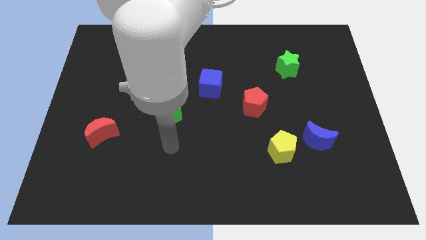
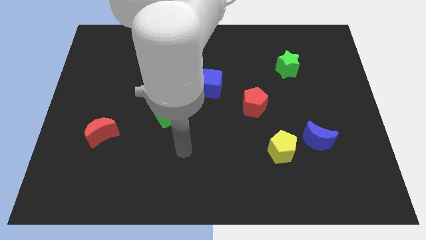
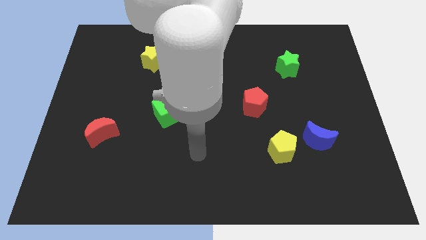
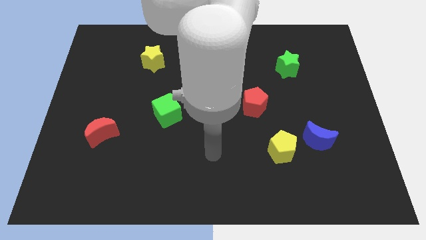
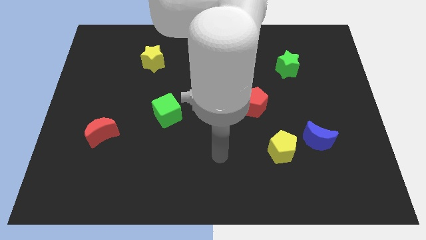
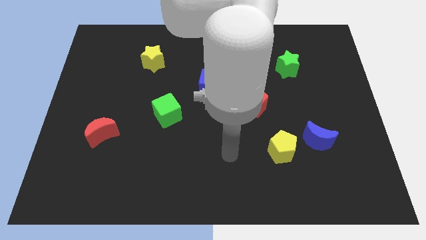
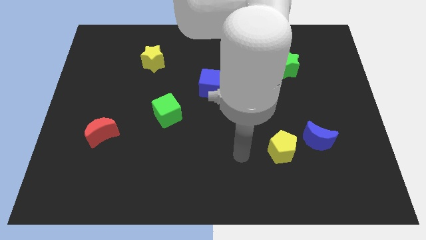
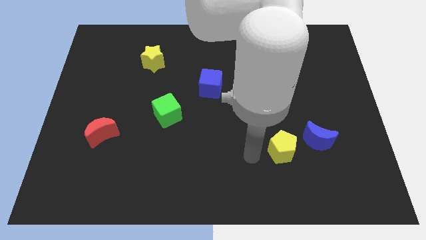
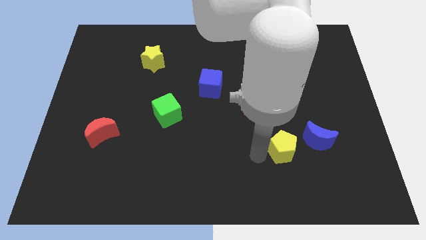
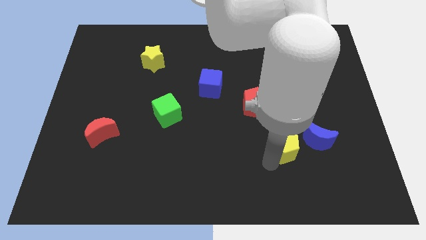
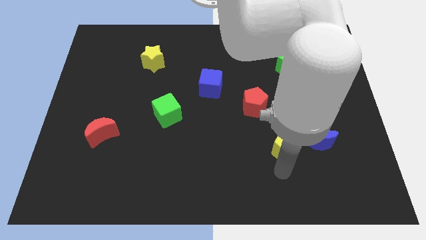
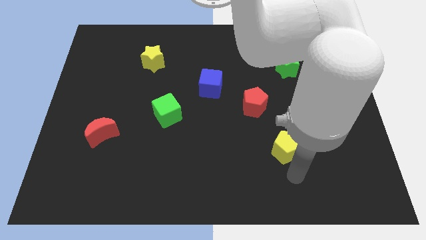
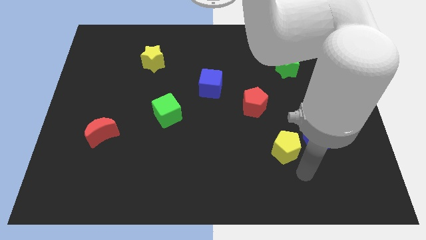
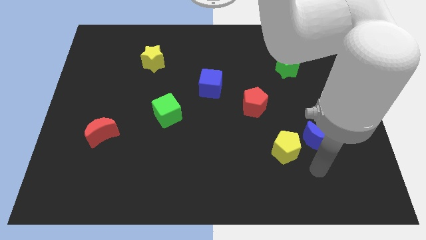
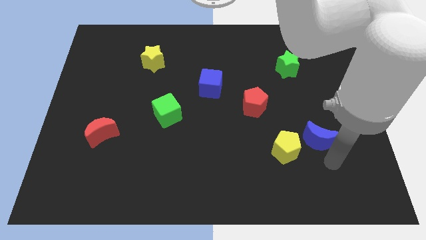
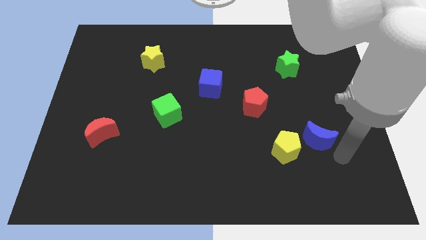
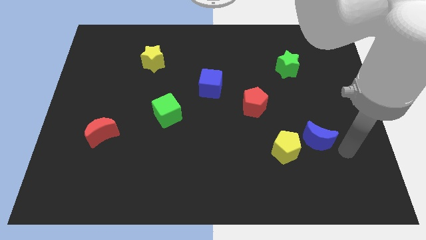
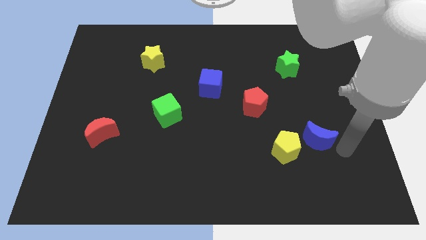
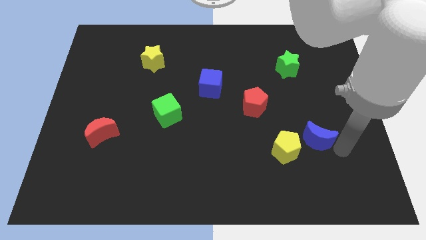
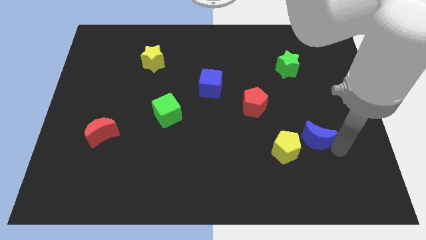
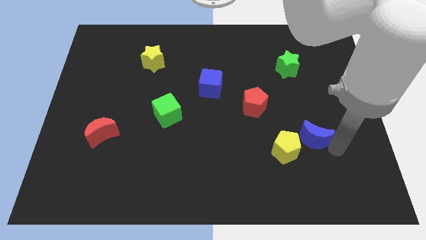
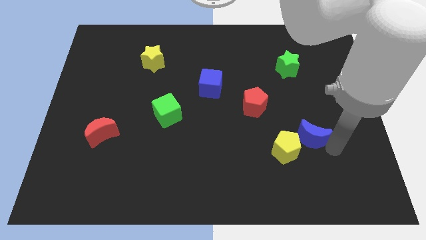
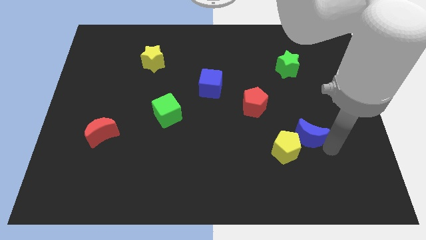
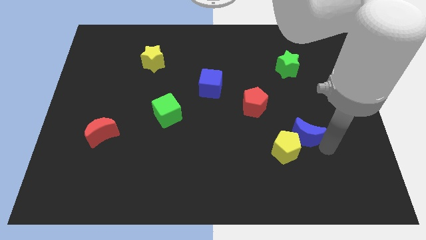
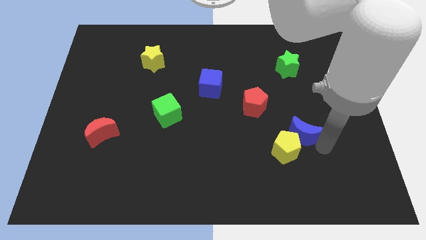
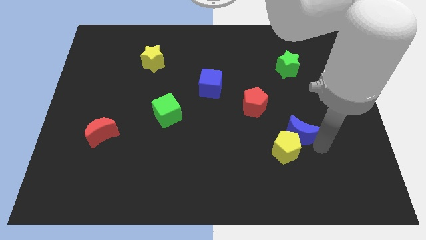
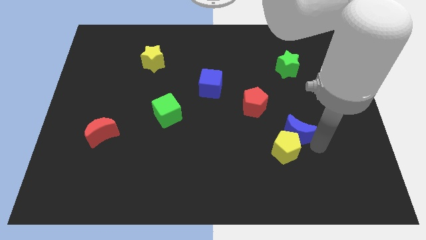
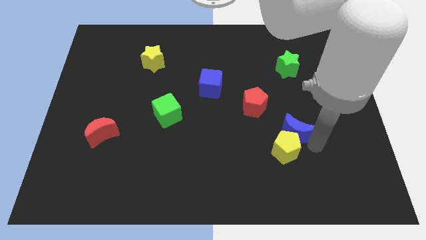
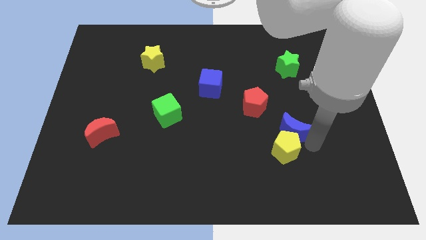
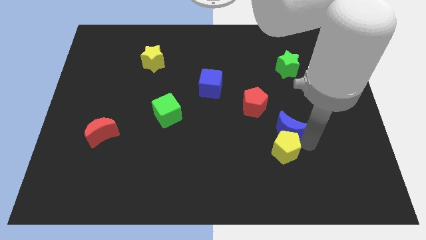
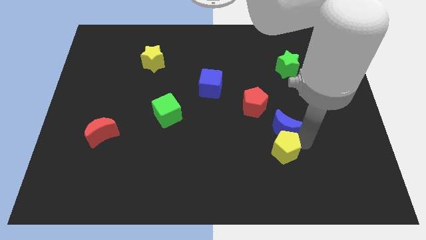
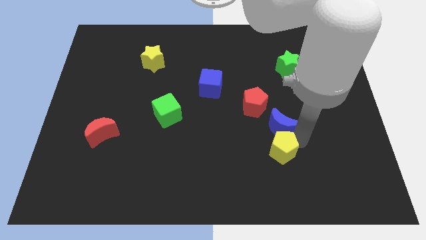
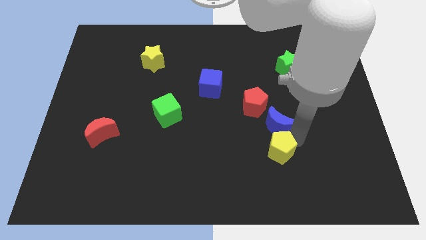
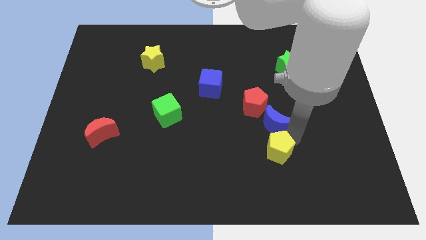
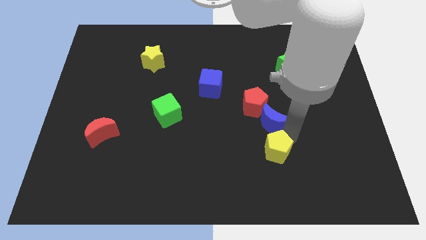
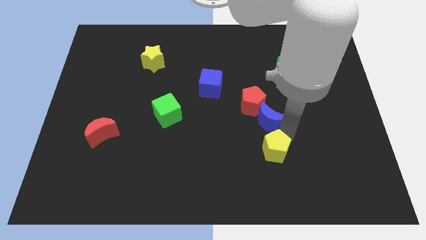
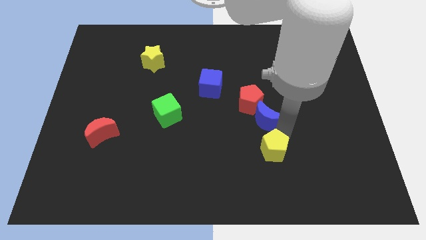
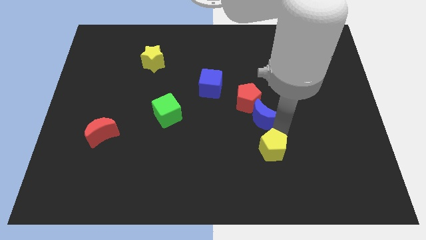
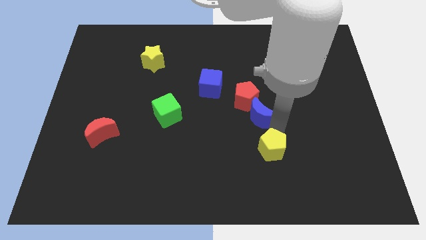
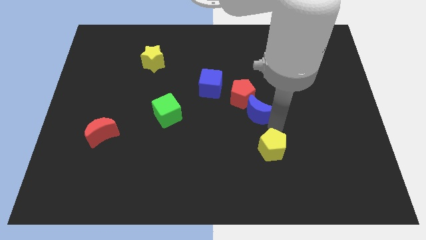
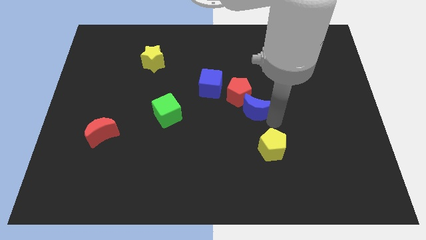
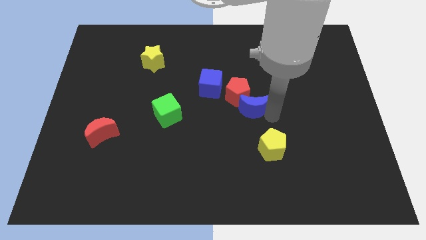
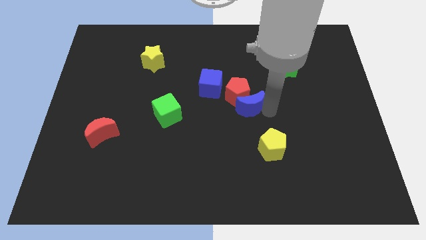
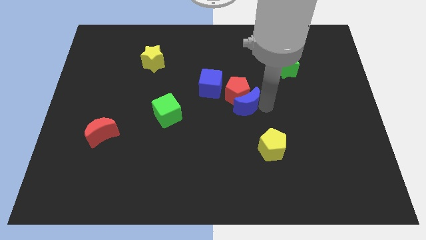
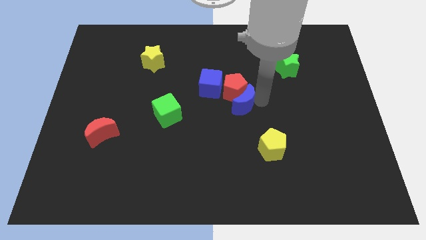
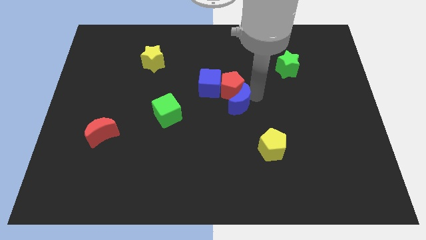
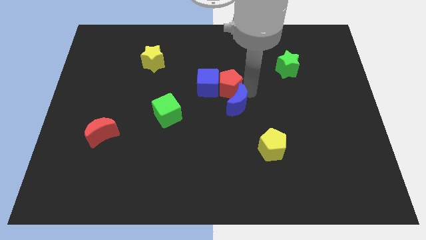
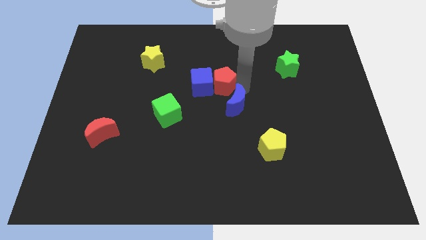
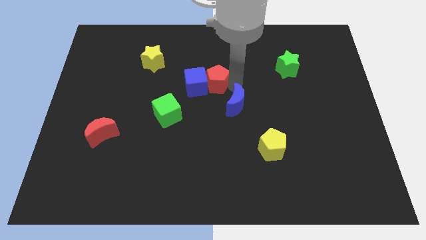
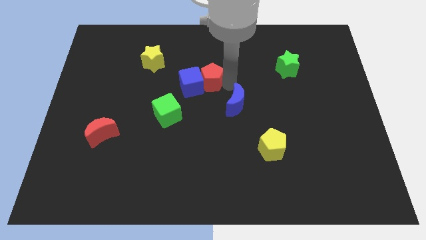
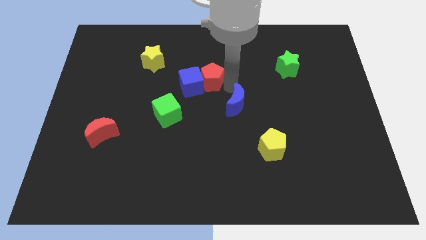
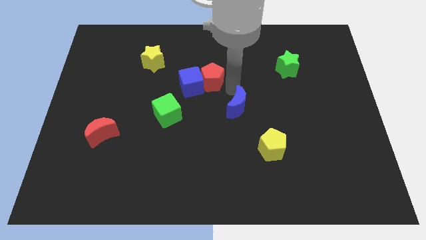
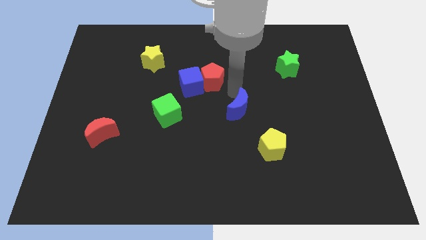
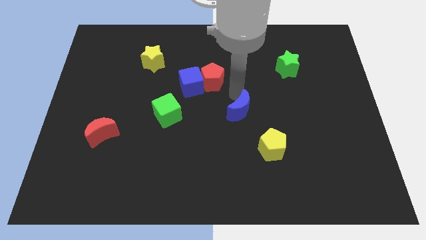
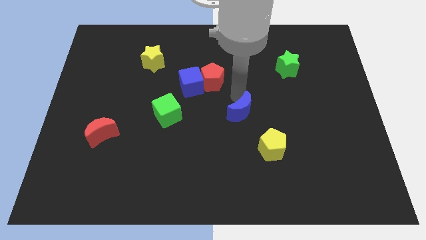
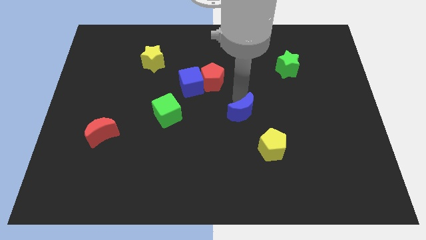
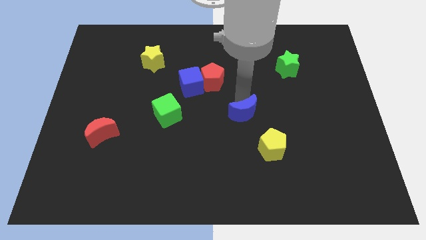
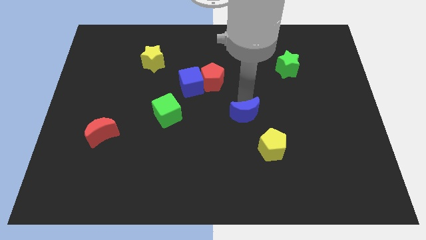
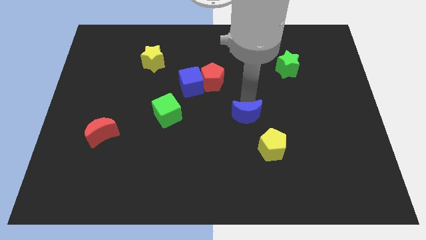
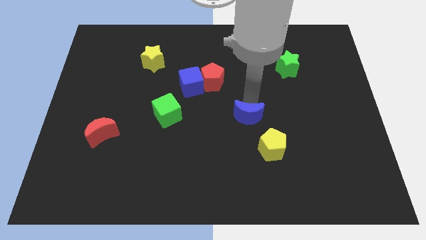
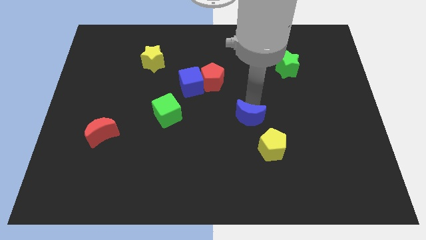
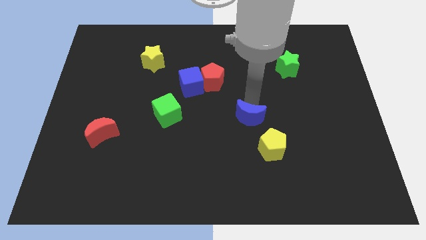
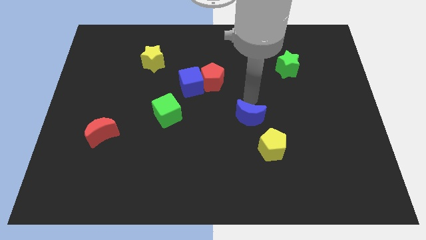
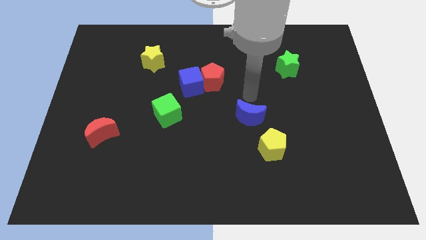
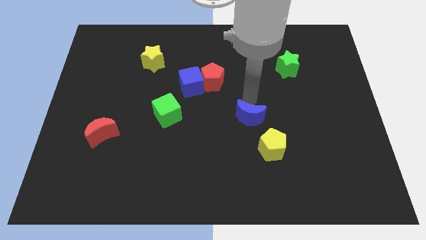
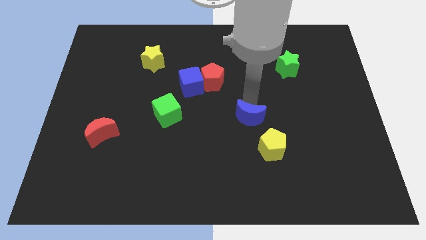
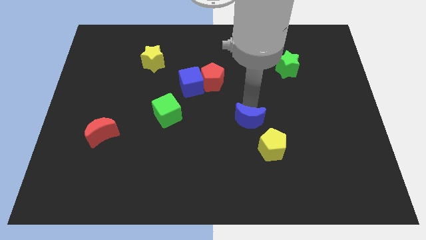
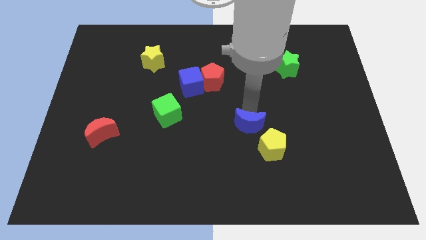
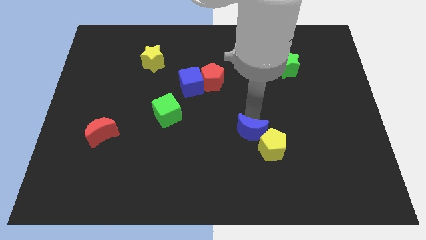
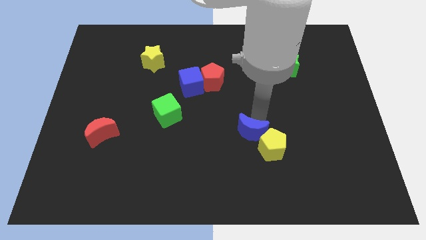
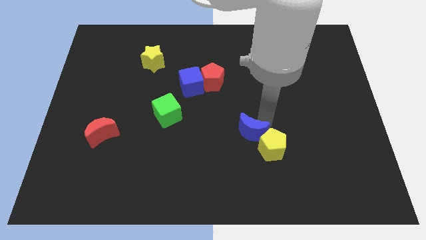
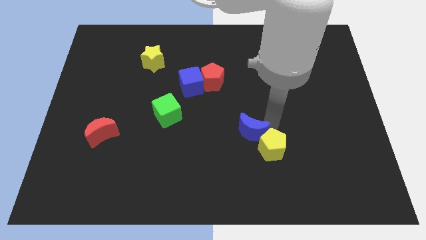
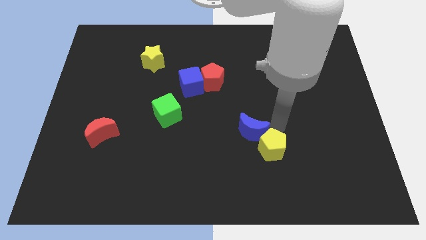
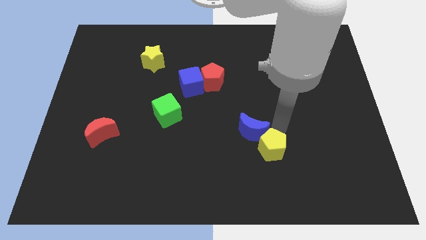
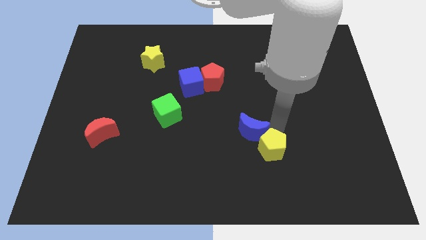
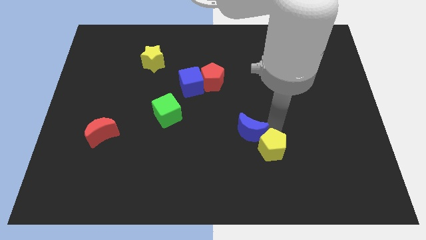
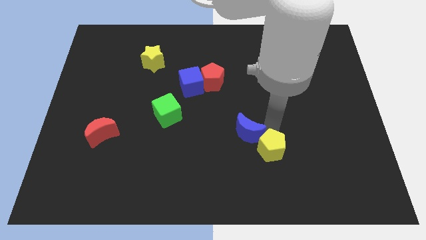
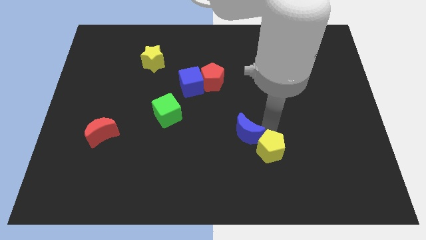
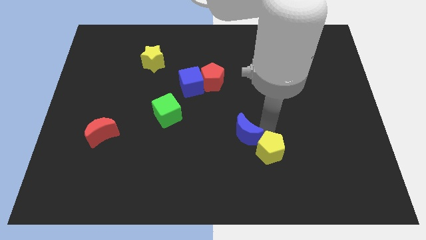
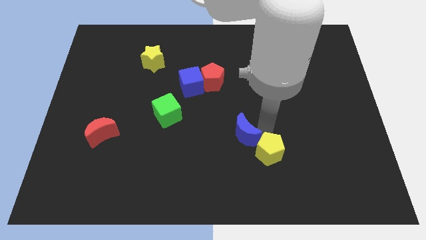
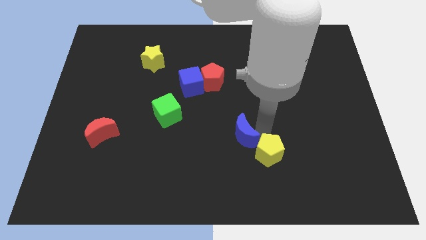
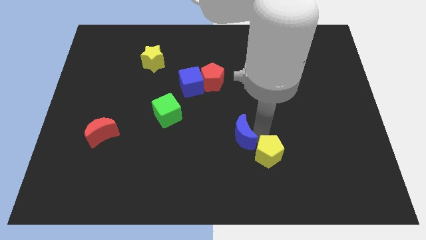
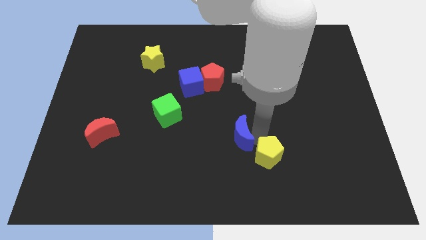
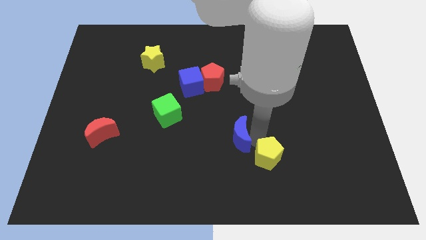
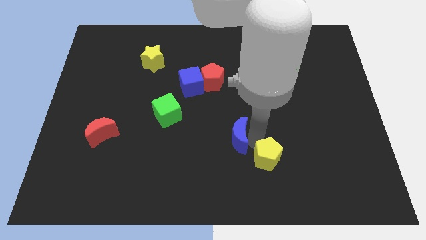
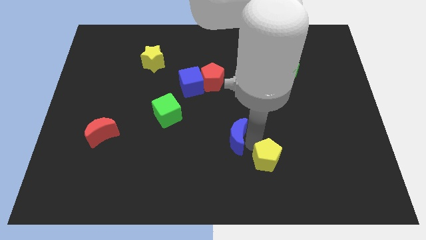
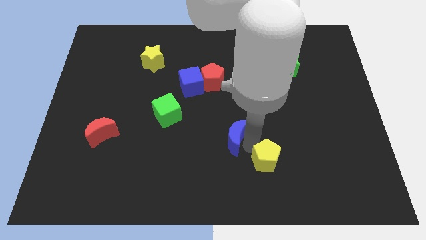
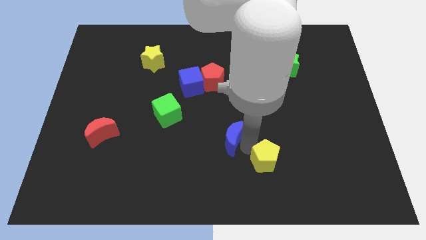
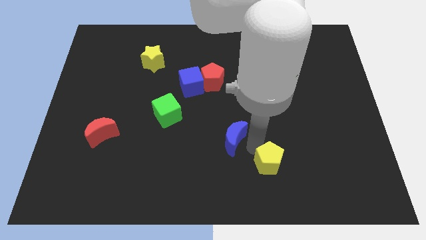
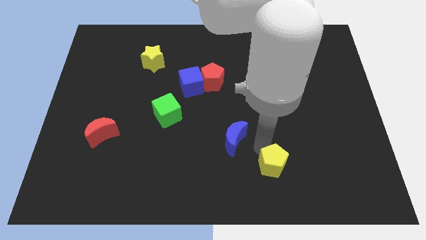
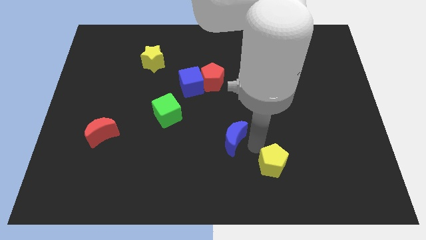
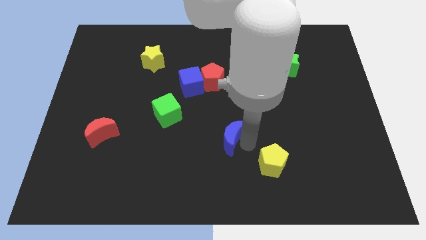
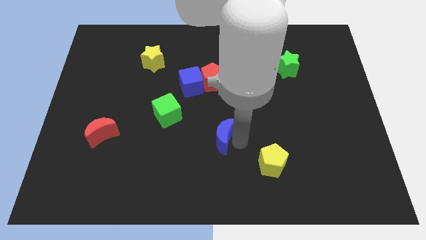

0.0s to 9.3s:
slide the blue moon left
